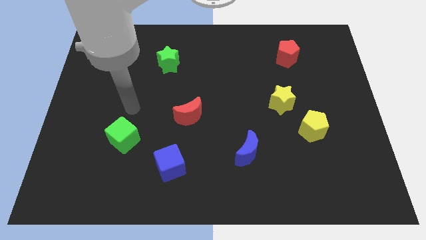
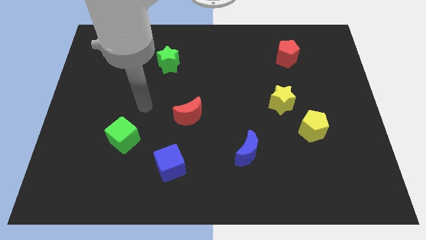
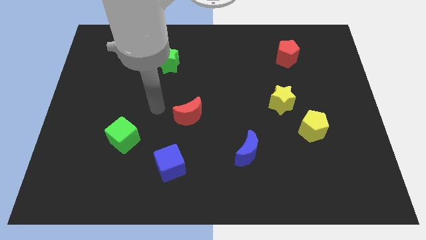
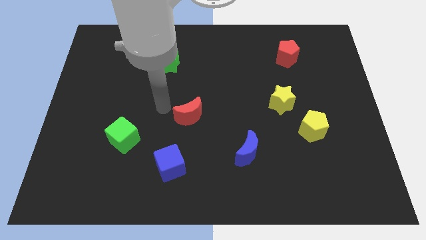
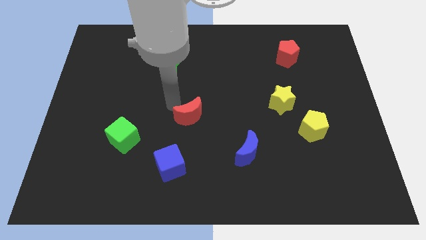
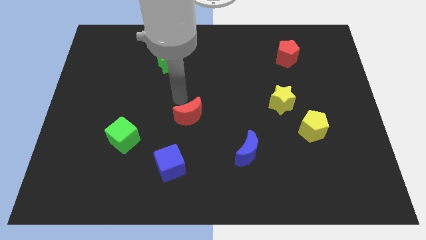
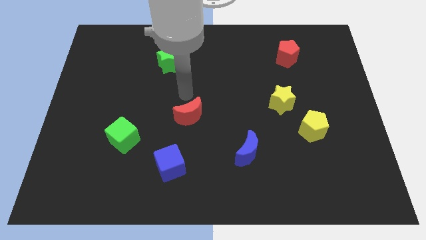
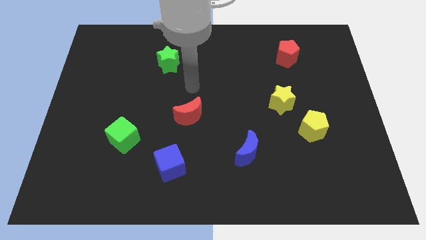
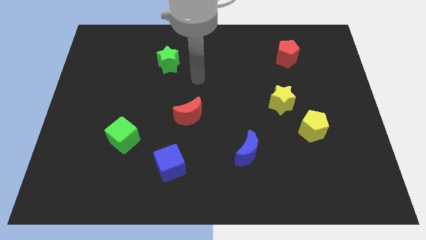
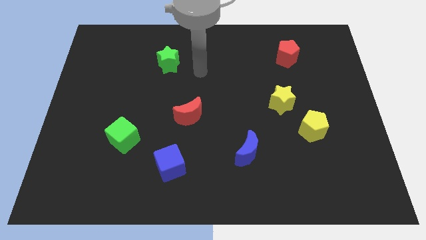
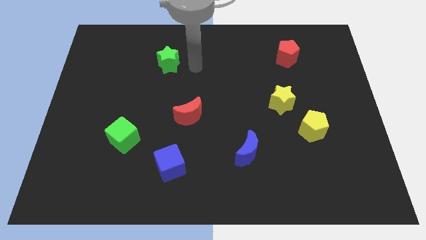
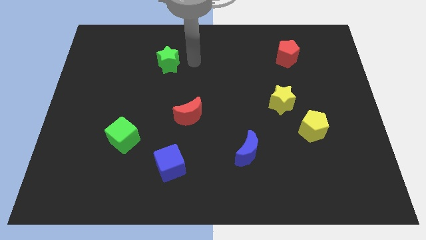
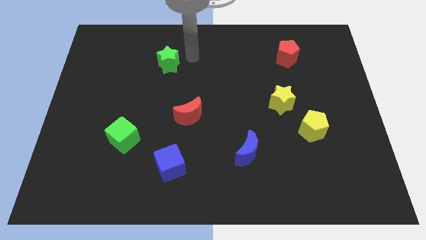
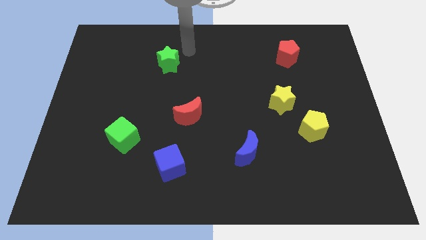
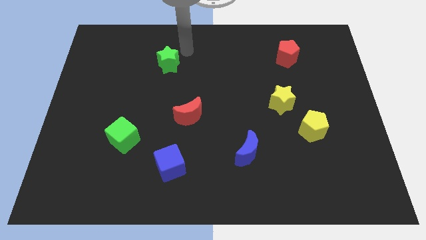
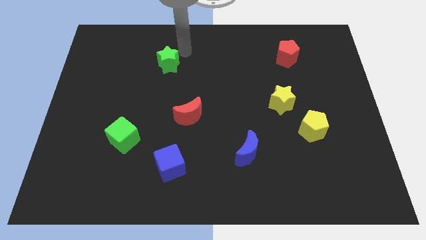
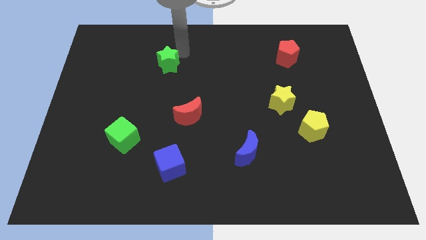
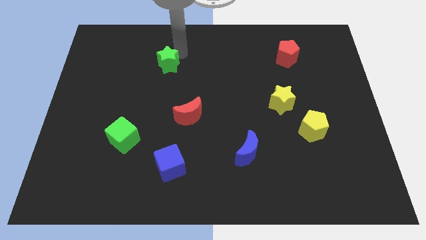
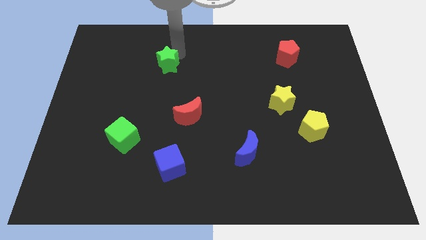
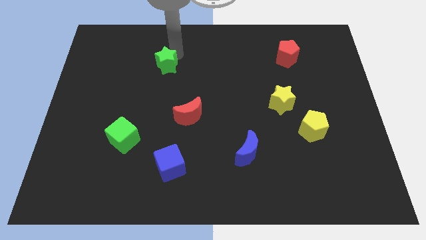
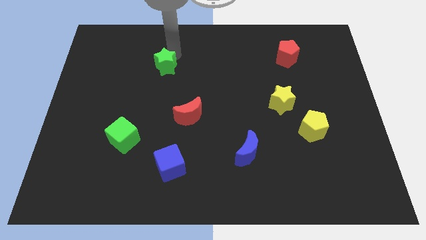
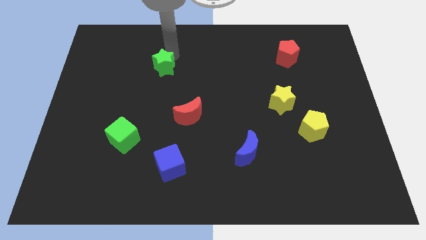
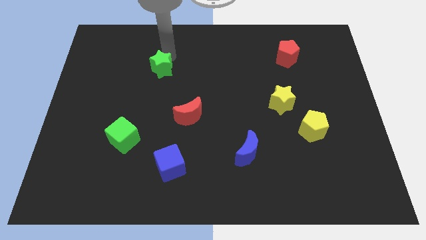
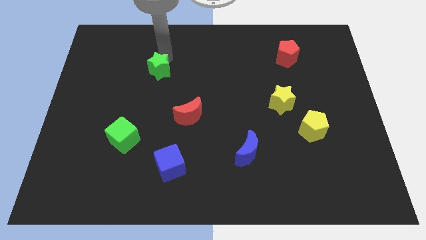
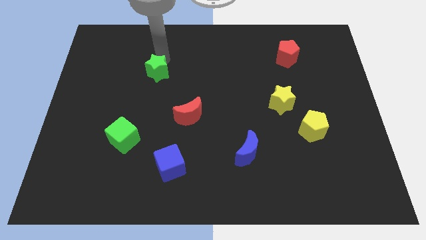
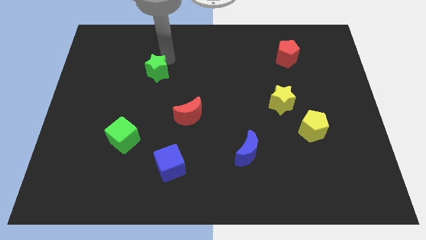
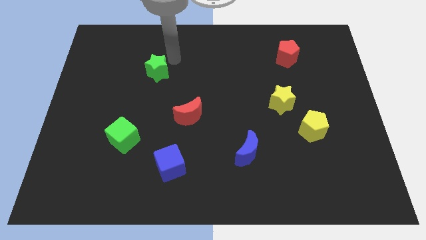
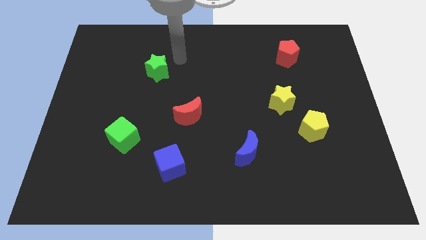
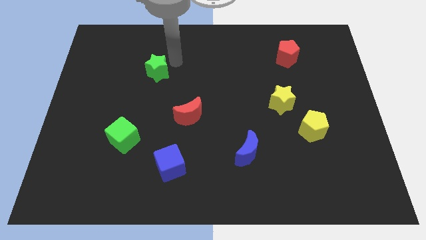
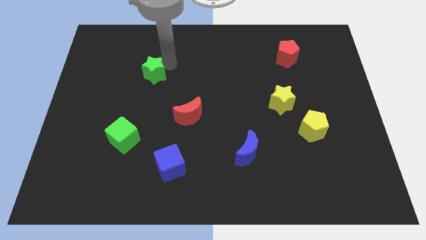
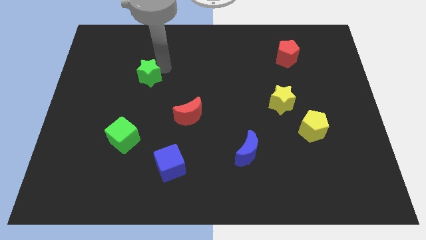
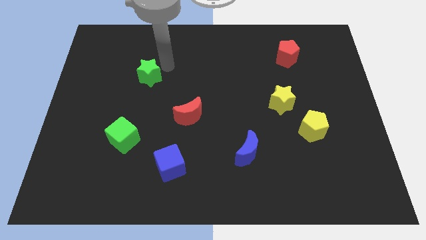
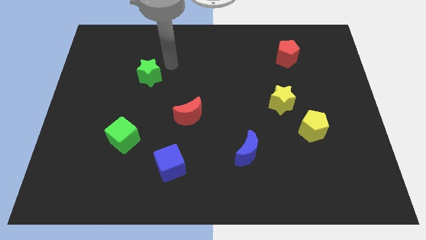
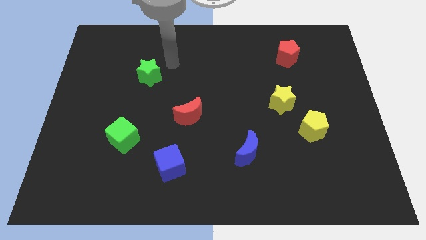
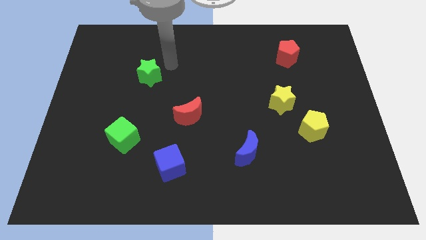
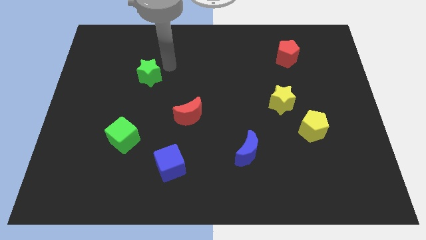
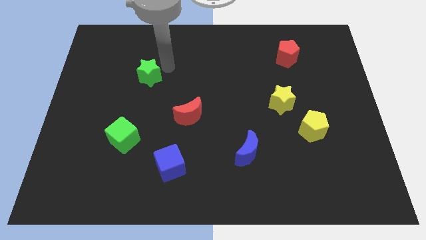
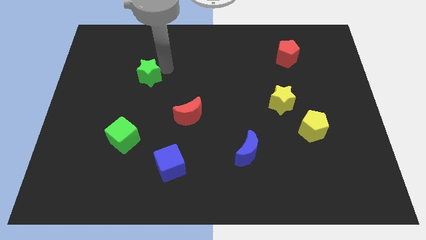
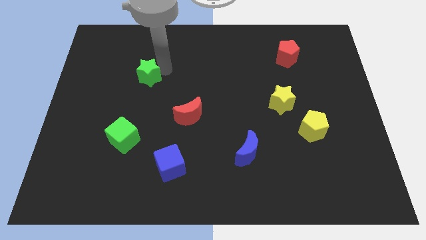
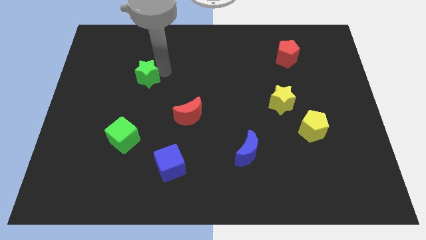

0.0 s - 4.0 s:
slide the green star somewhat downwards and then to the left

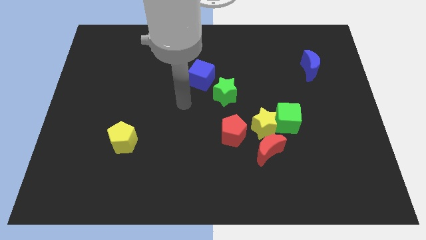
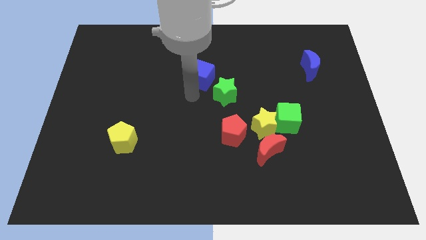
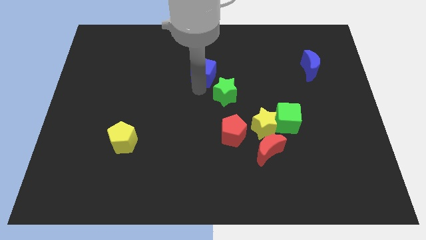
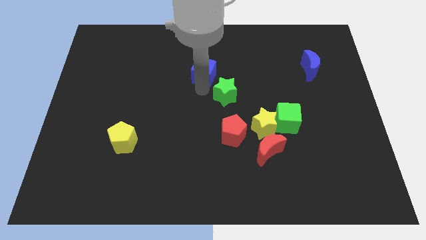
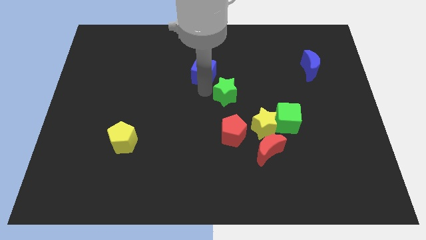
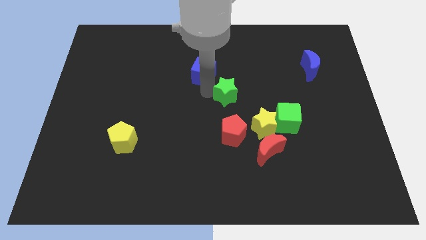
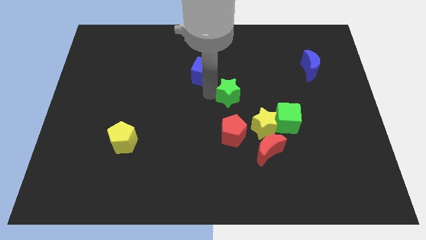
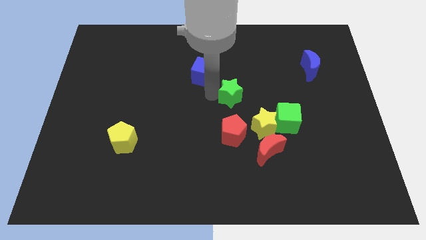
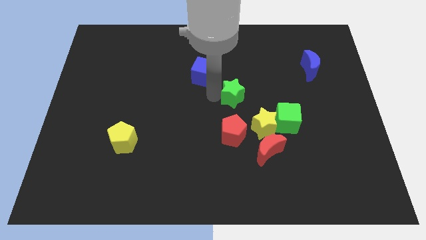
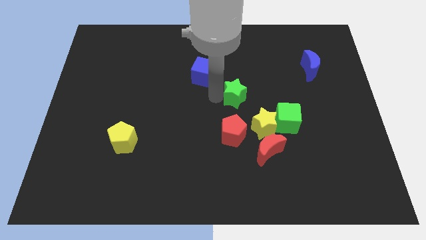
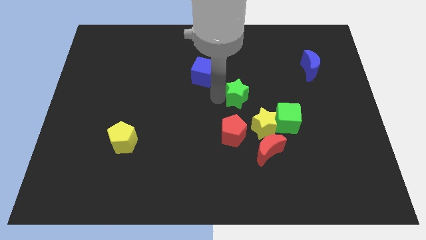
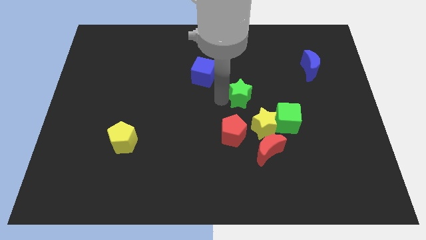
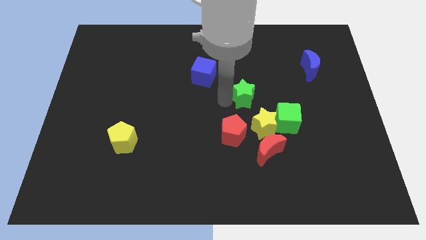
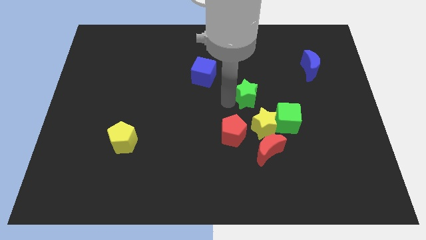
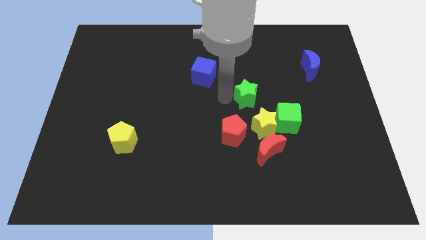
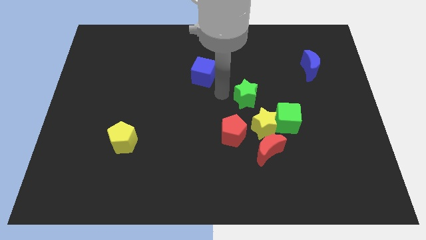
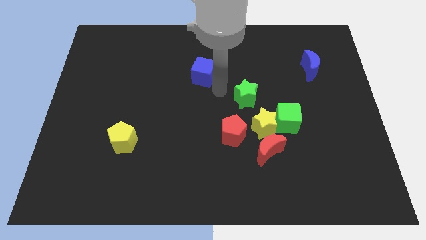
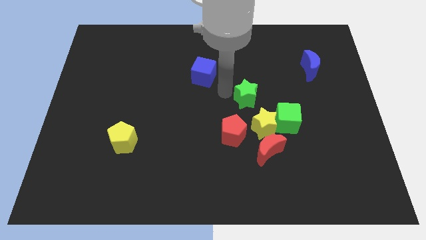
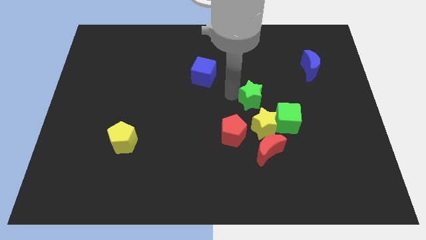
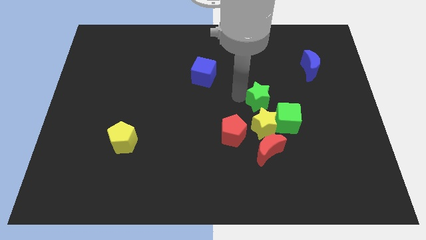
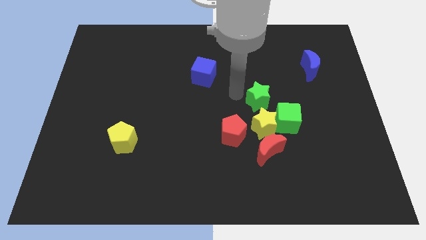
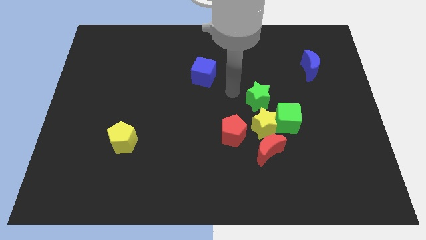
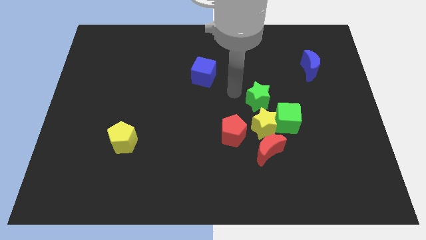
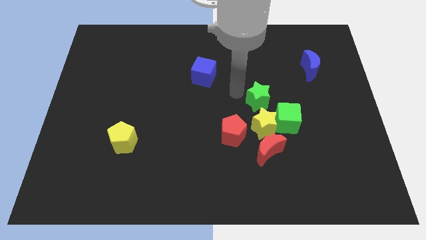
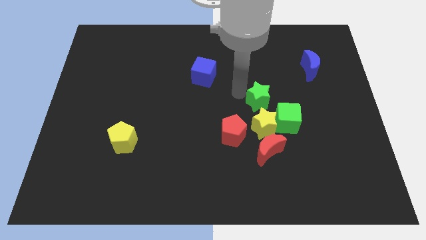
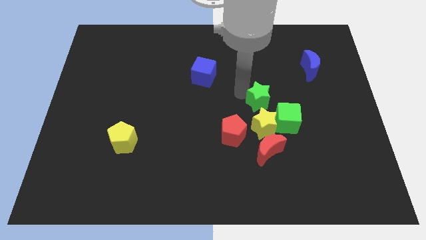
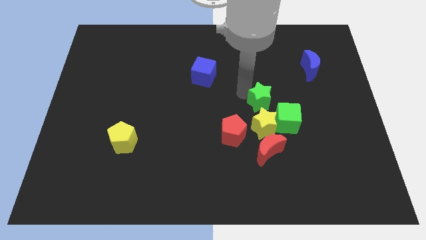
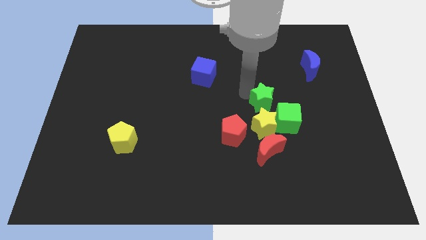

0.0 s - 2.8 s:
slightly slide the green star downwards and to the right

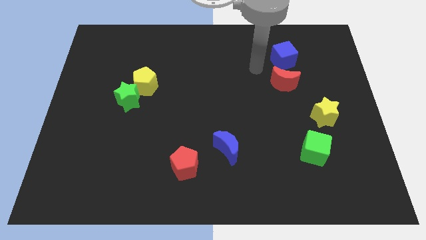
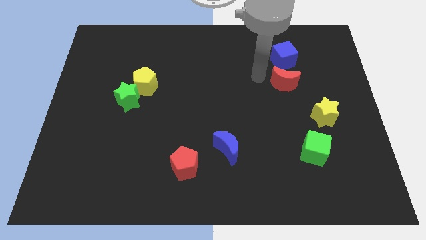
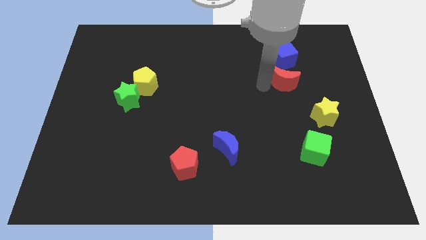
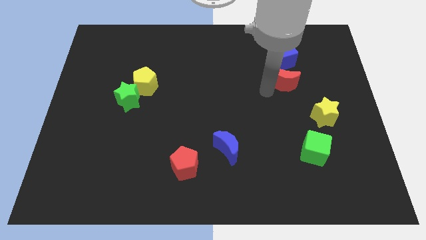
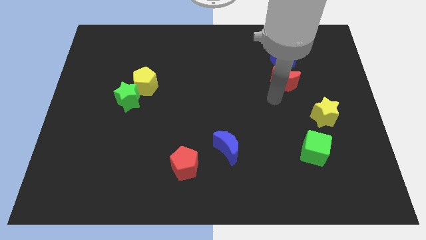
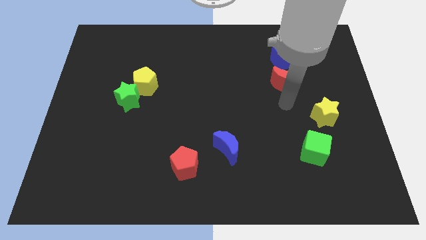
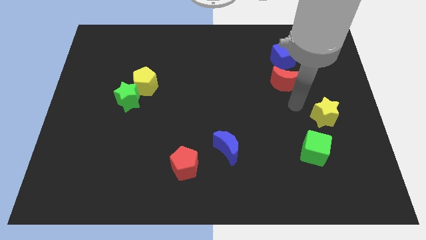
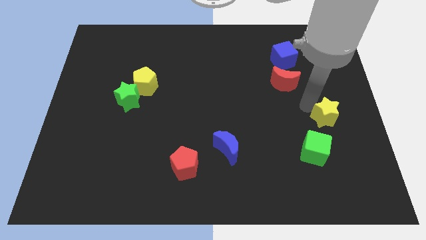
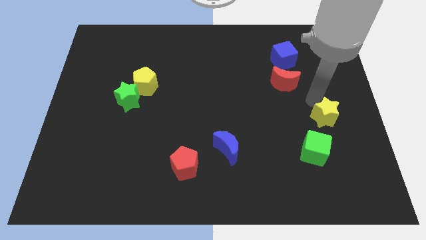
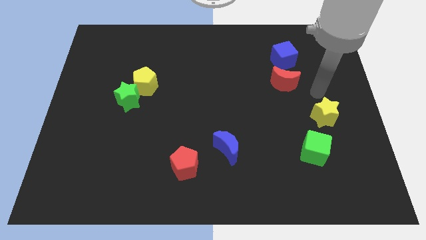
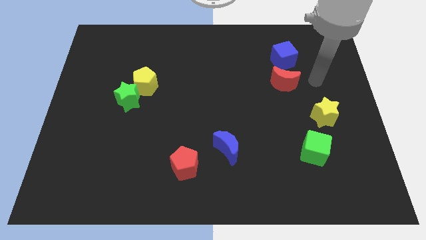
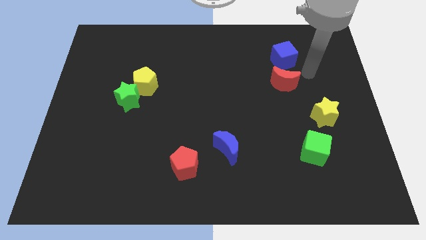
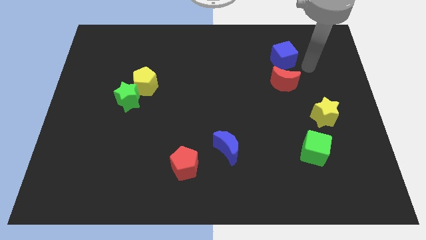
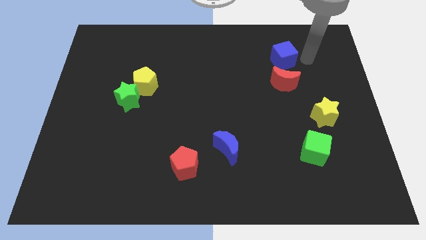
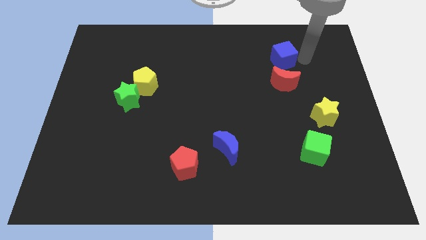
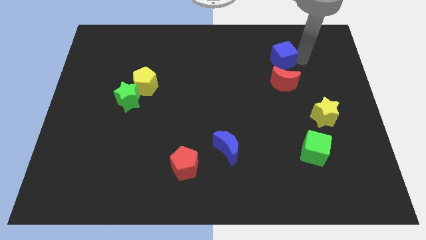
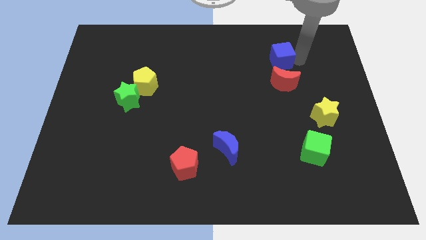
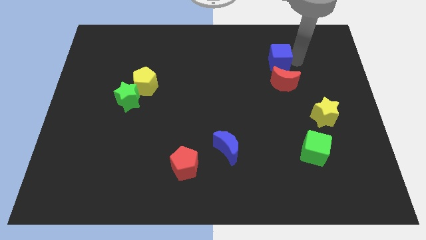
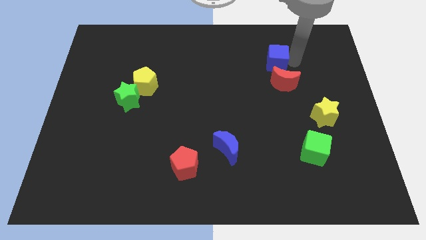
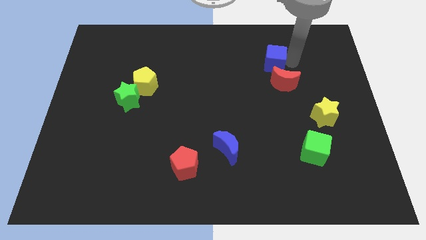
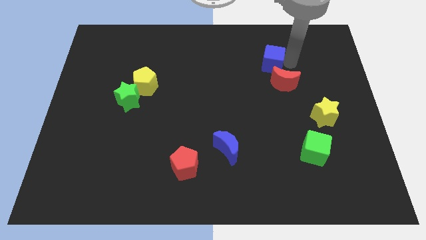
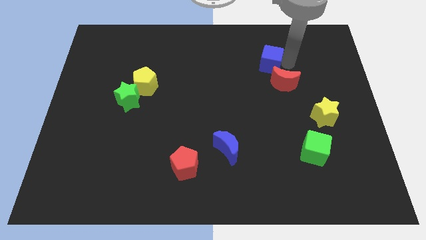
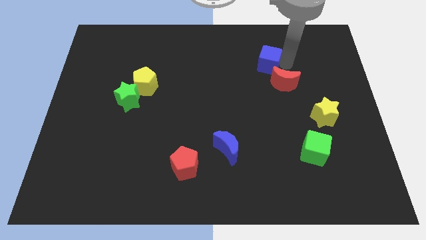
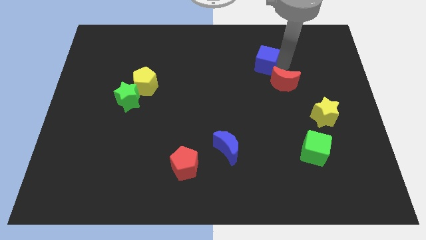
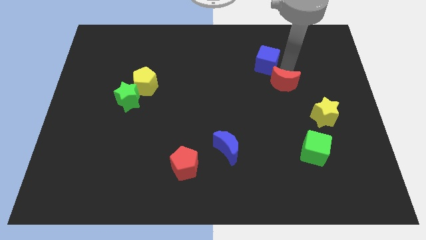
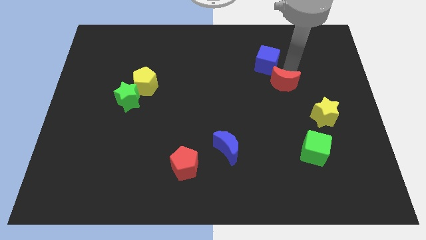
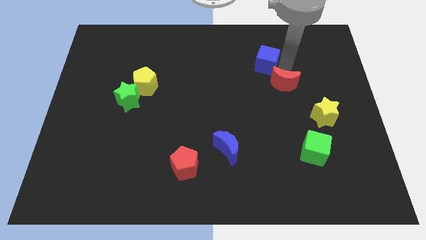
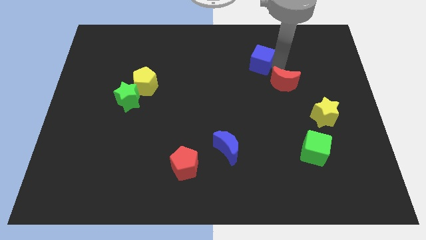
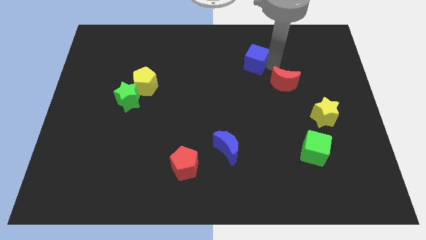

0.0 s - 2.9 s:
push the blue cube a little bit to the left
